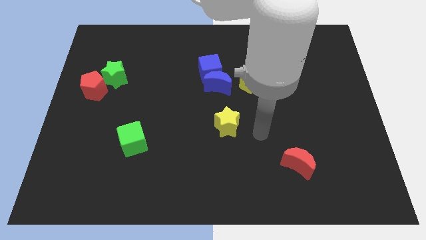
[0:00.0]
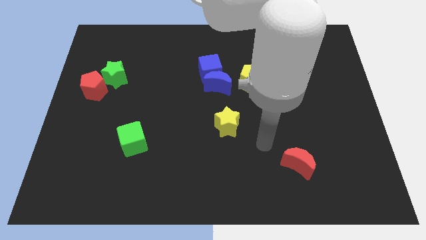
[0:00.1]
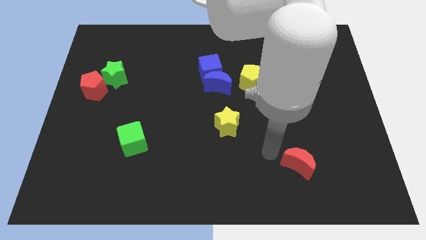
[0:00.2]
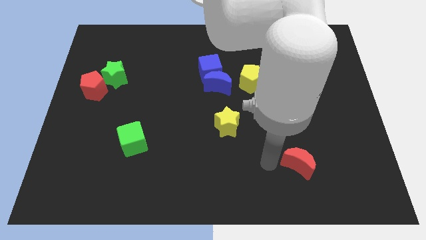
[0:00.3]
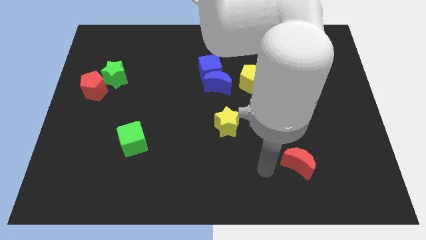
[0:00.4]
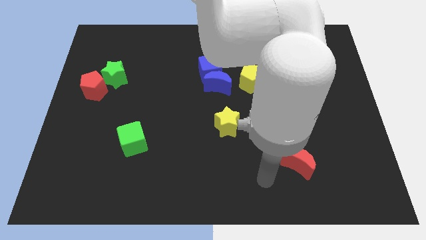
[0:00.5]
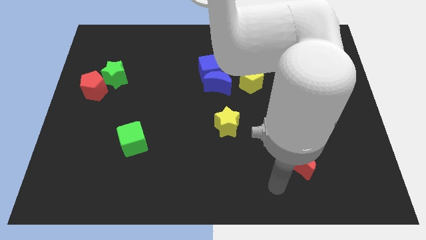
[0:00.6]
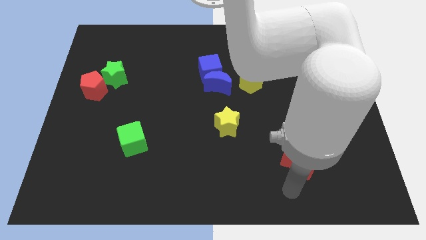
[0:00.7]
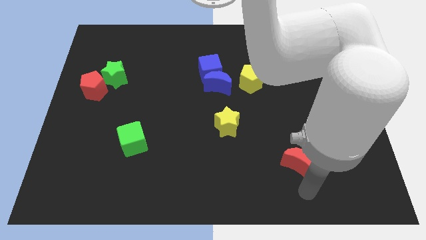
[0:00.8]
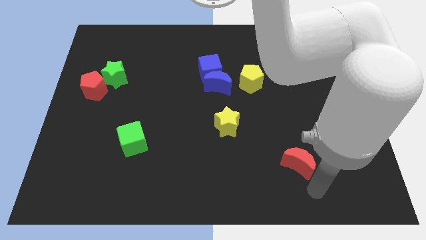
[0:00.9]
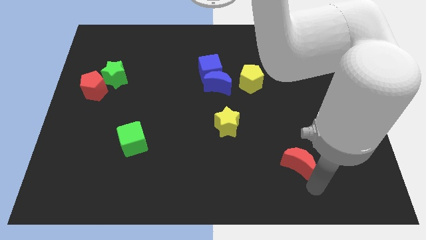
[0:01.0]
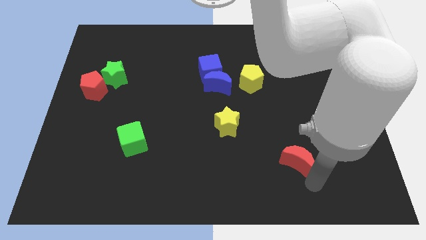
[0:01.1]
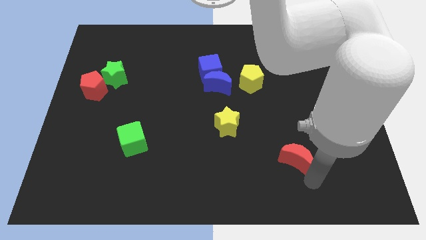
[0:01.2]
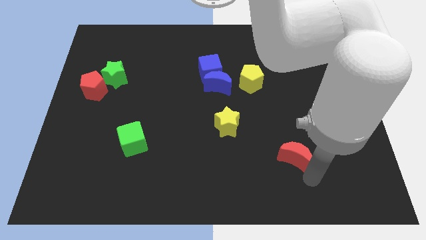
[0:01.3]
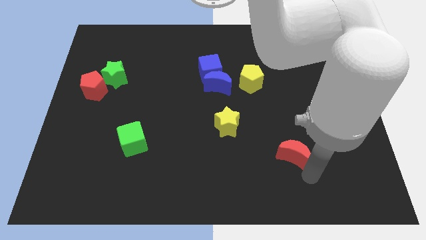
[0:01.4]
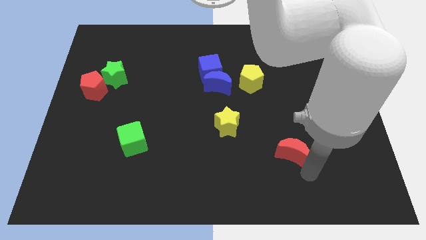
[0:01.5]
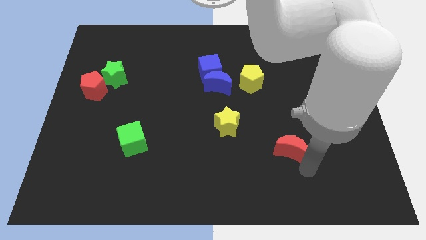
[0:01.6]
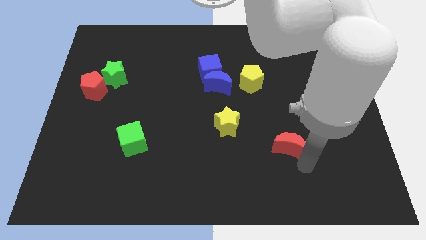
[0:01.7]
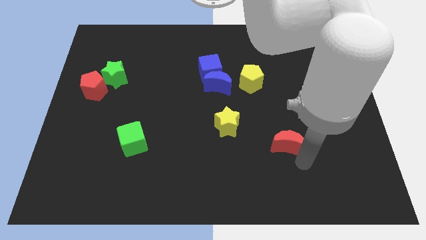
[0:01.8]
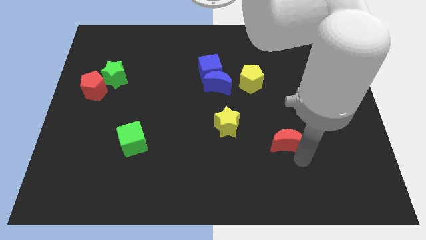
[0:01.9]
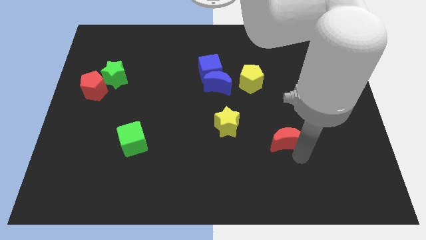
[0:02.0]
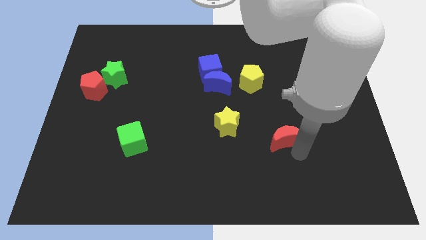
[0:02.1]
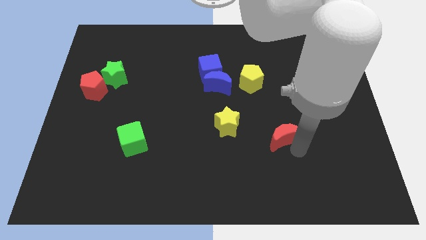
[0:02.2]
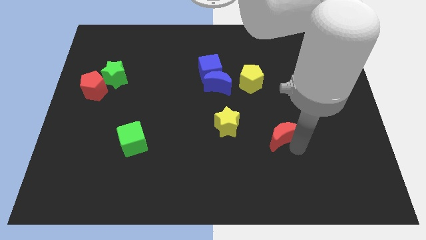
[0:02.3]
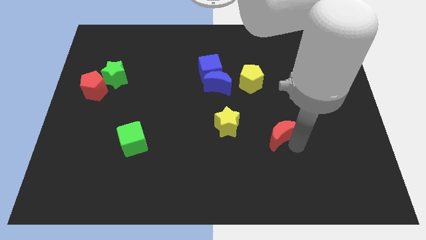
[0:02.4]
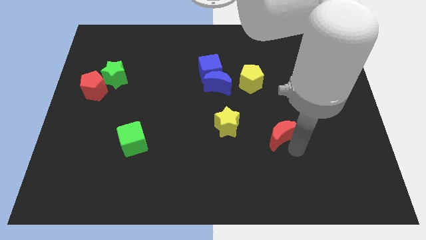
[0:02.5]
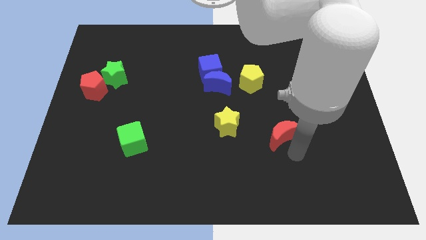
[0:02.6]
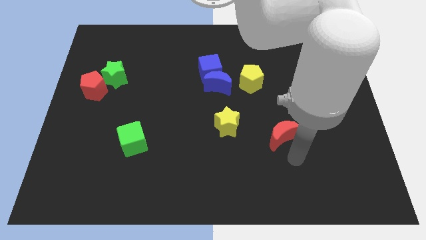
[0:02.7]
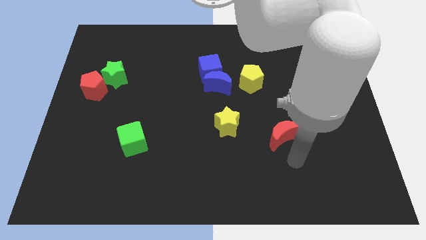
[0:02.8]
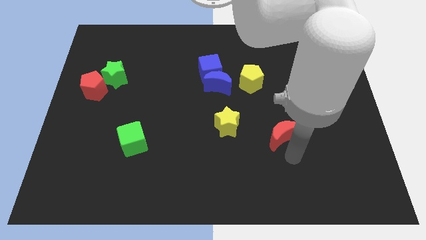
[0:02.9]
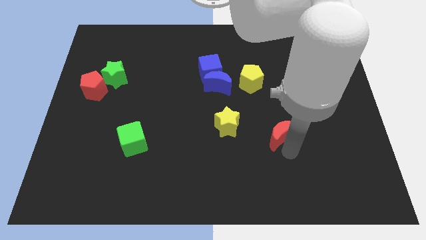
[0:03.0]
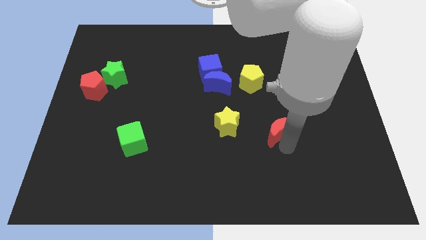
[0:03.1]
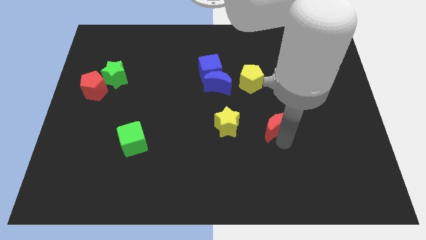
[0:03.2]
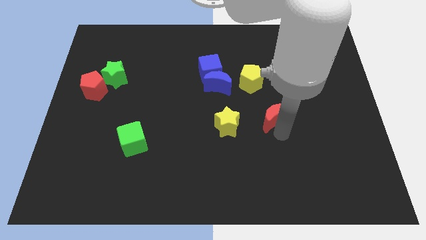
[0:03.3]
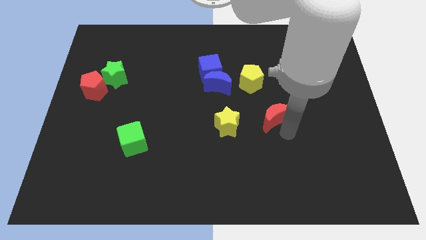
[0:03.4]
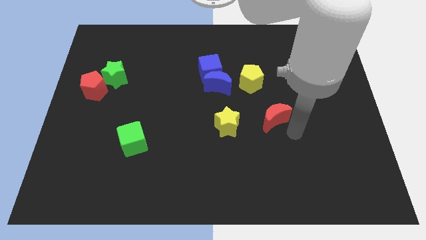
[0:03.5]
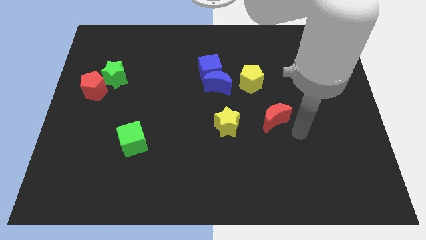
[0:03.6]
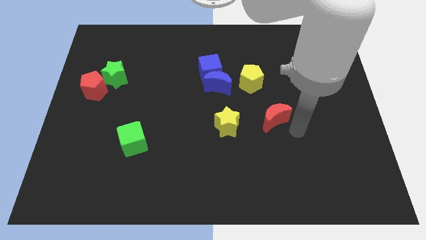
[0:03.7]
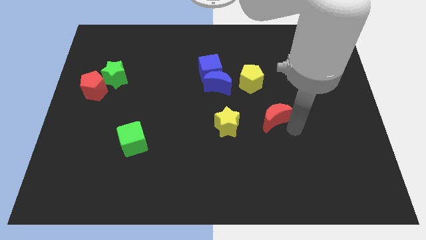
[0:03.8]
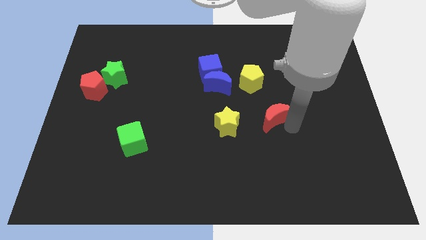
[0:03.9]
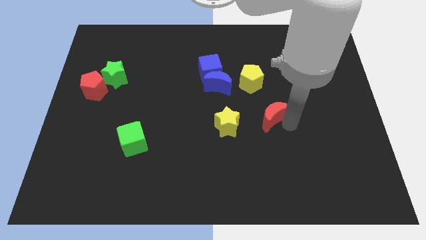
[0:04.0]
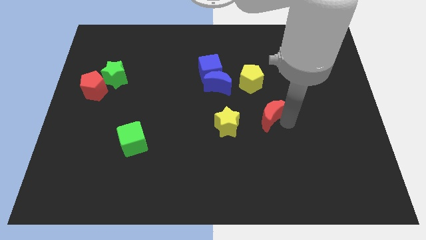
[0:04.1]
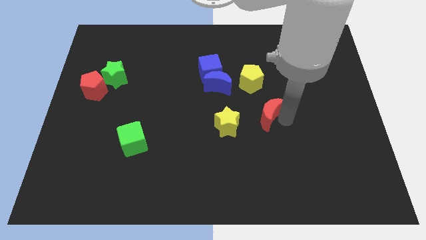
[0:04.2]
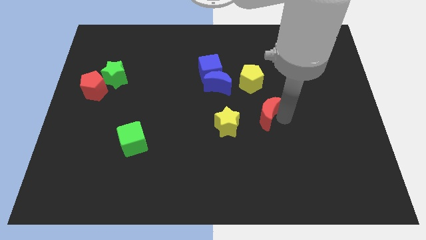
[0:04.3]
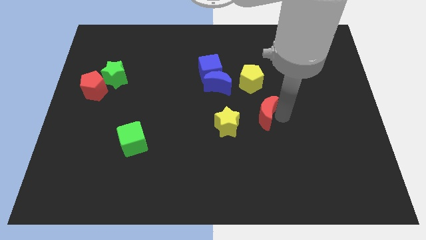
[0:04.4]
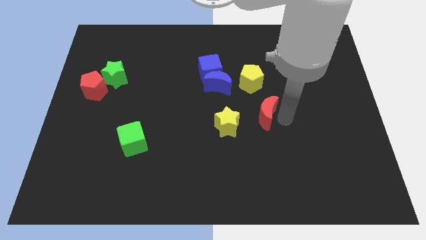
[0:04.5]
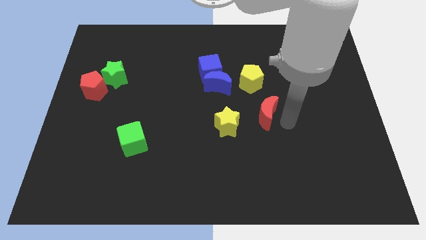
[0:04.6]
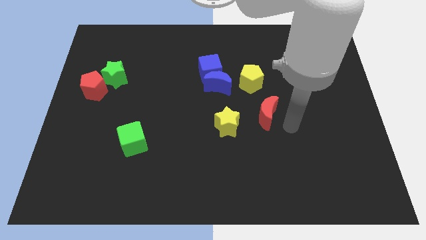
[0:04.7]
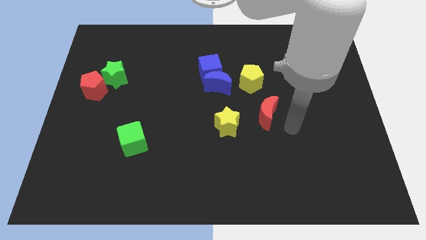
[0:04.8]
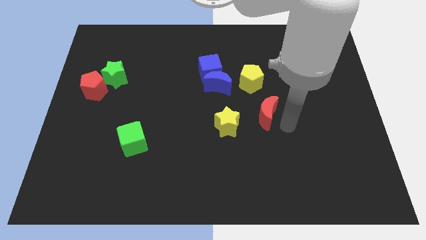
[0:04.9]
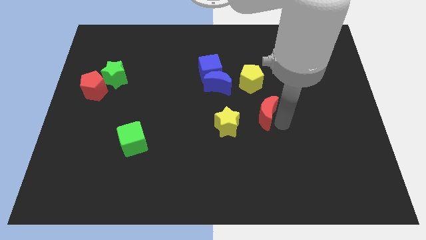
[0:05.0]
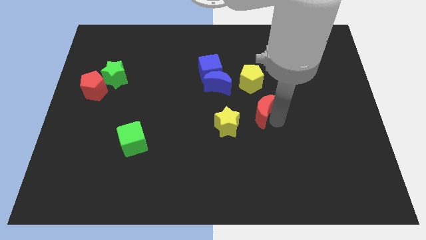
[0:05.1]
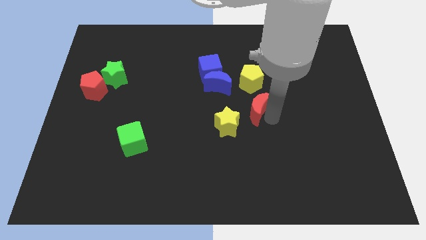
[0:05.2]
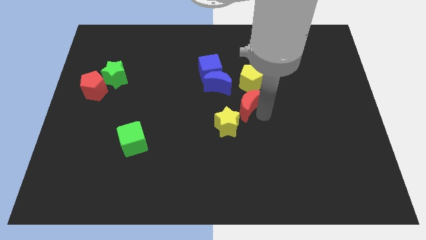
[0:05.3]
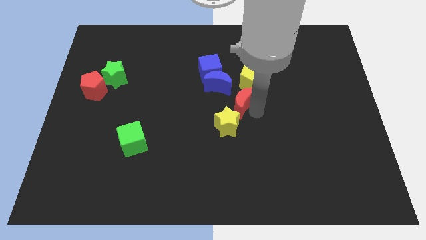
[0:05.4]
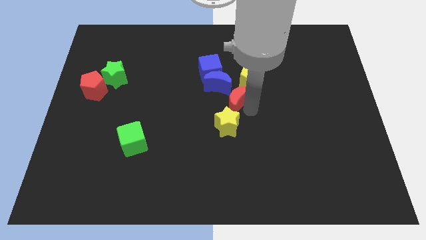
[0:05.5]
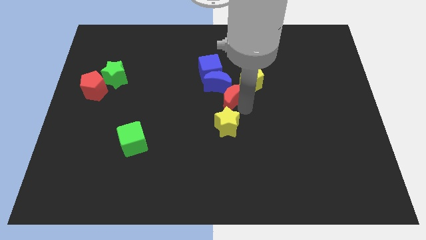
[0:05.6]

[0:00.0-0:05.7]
move the red moon next to the blue moon
